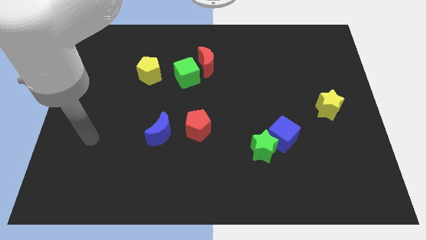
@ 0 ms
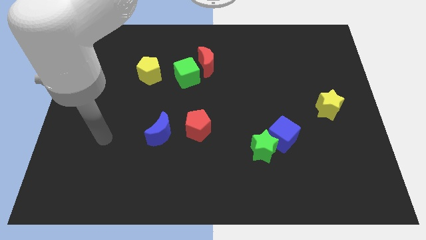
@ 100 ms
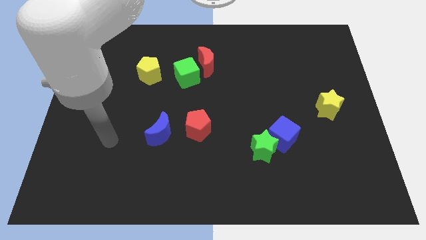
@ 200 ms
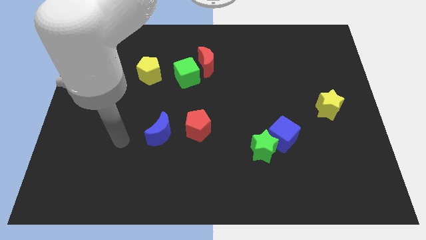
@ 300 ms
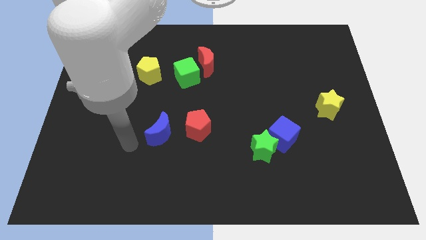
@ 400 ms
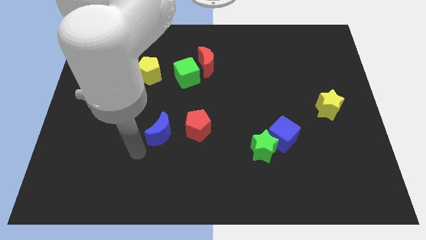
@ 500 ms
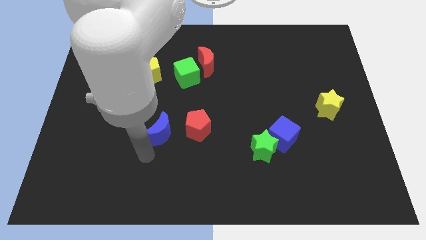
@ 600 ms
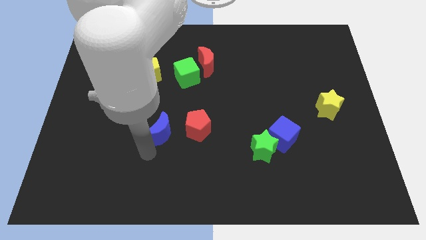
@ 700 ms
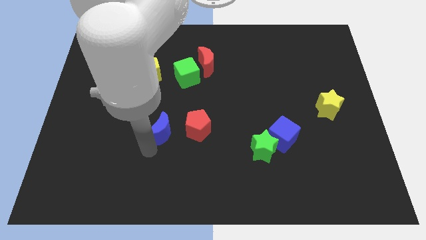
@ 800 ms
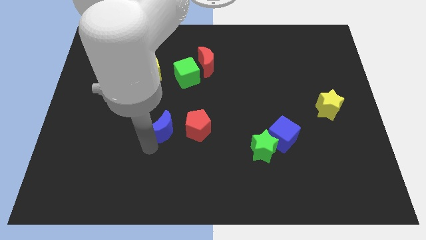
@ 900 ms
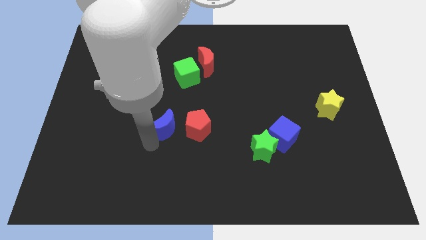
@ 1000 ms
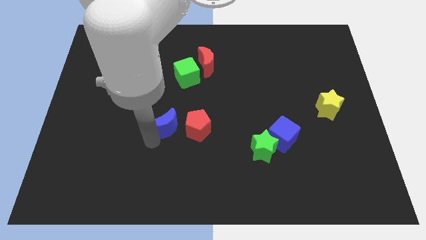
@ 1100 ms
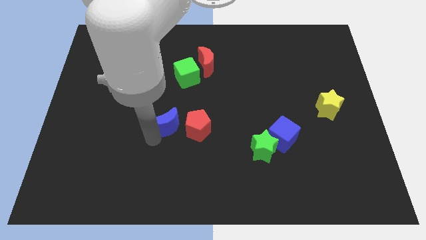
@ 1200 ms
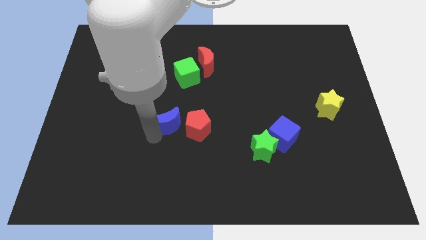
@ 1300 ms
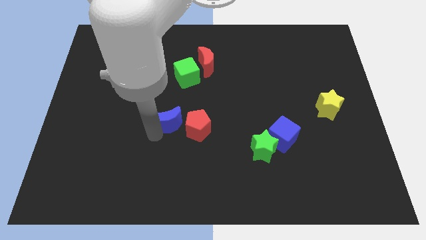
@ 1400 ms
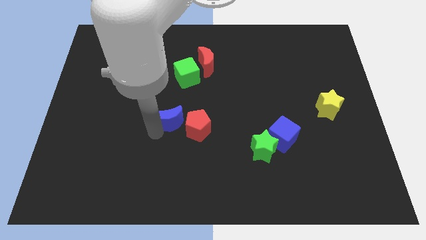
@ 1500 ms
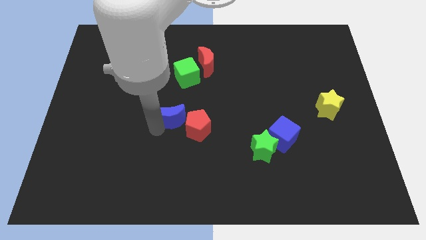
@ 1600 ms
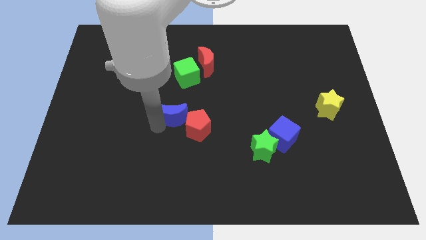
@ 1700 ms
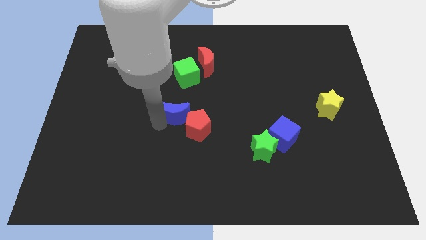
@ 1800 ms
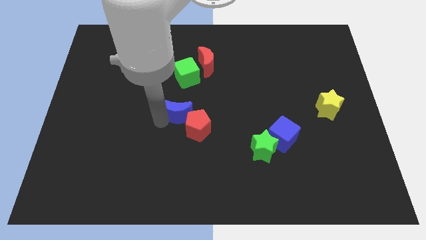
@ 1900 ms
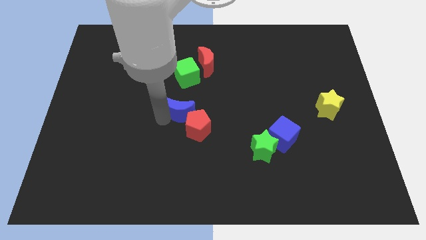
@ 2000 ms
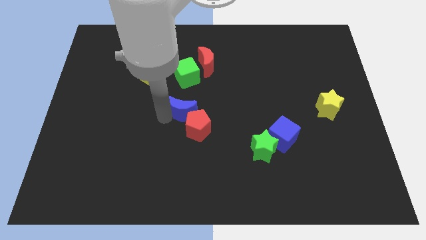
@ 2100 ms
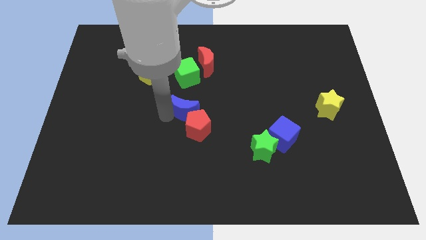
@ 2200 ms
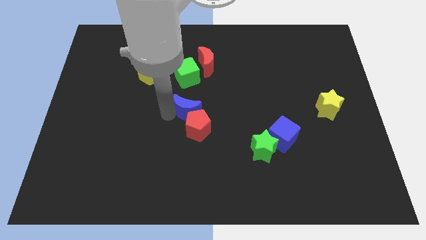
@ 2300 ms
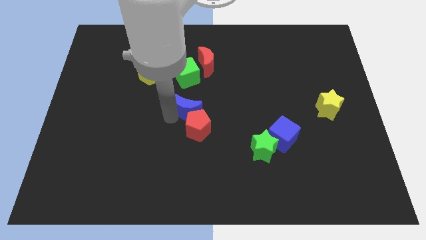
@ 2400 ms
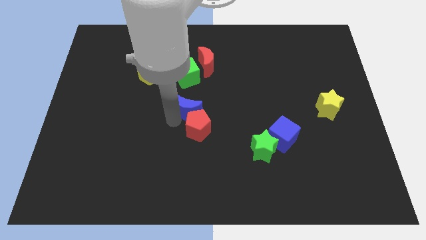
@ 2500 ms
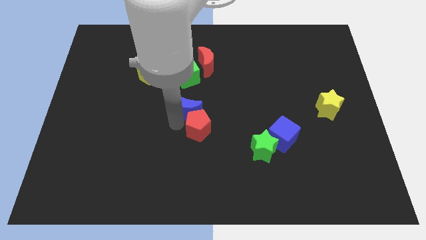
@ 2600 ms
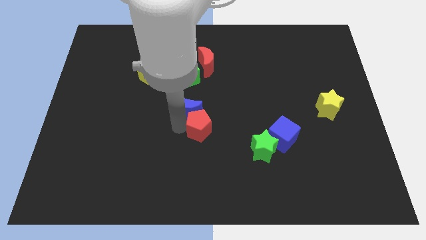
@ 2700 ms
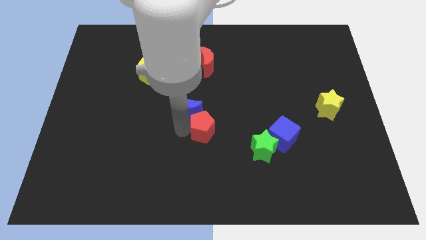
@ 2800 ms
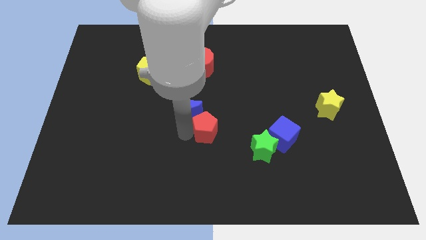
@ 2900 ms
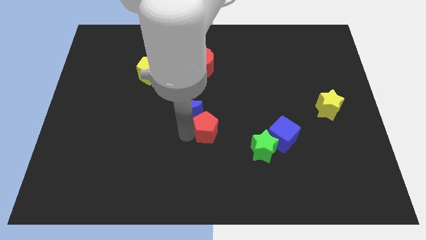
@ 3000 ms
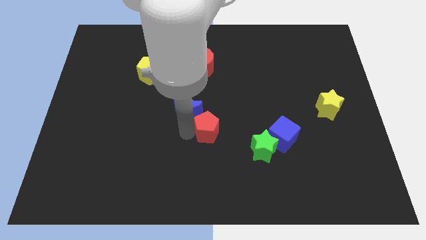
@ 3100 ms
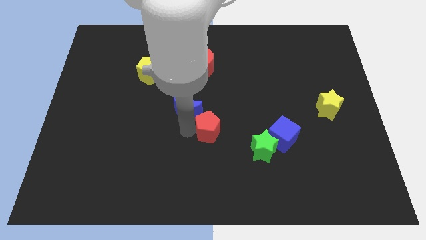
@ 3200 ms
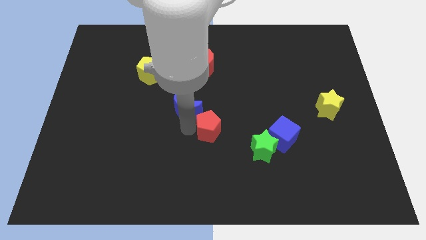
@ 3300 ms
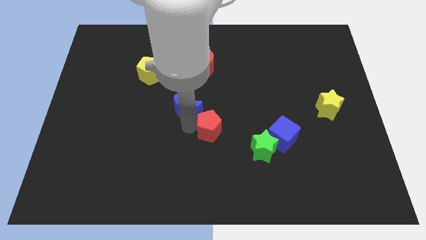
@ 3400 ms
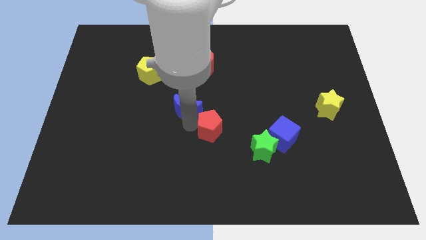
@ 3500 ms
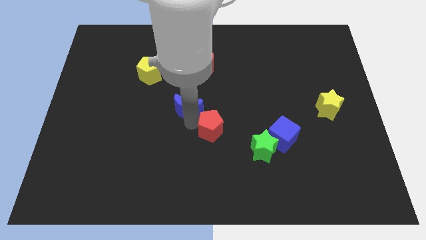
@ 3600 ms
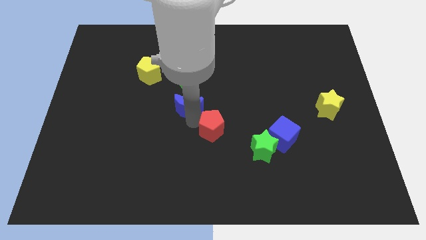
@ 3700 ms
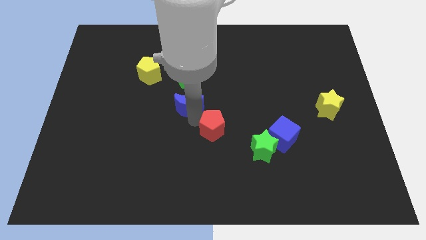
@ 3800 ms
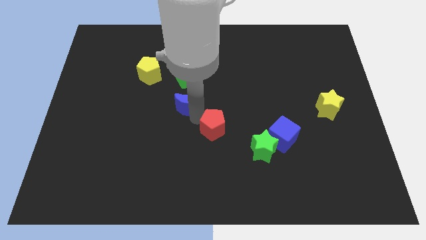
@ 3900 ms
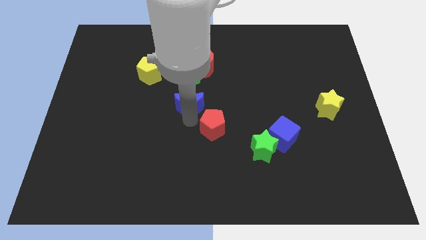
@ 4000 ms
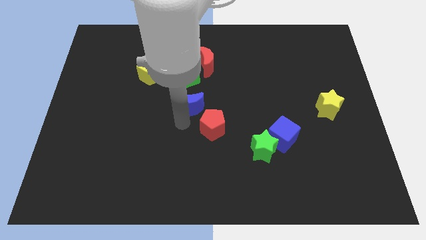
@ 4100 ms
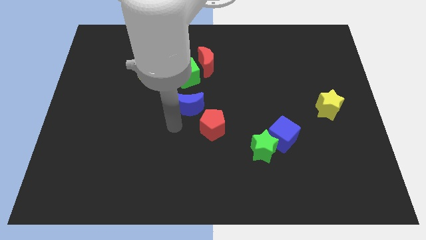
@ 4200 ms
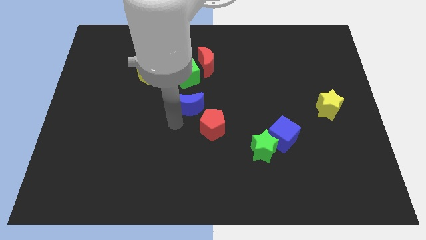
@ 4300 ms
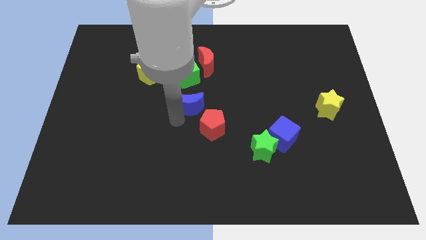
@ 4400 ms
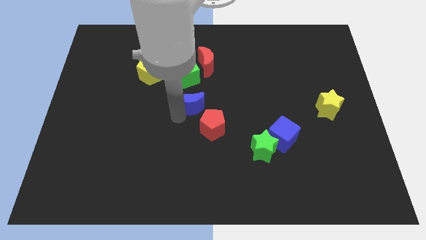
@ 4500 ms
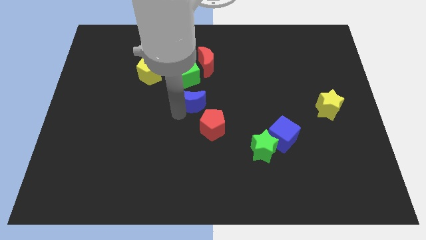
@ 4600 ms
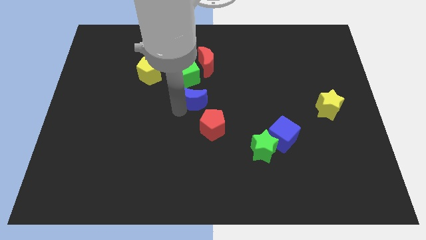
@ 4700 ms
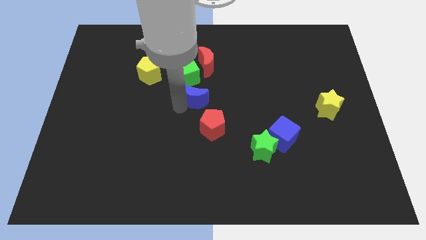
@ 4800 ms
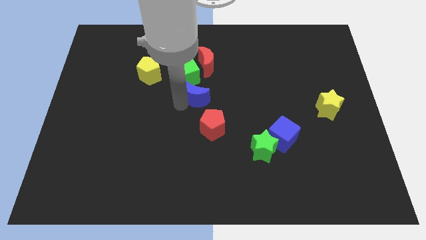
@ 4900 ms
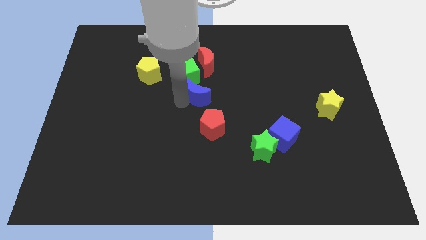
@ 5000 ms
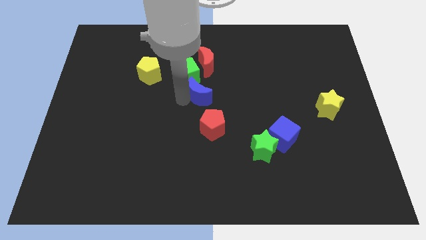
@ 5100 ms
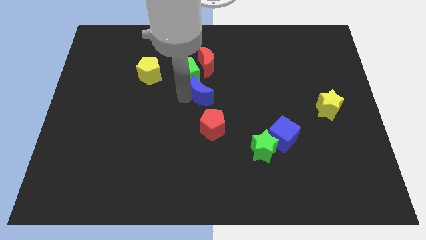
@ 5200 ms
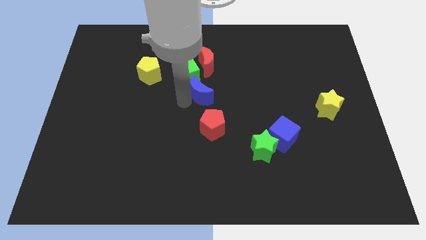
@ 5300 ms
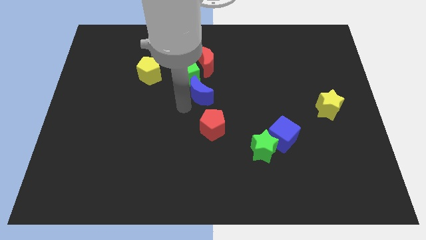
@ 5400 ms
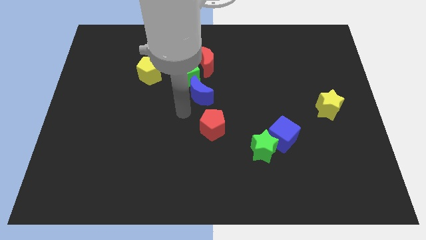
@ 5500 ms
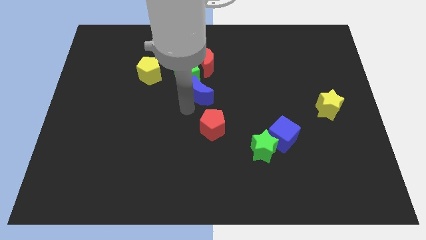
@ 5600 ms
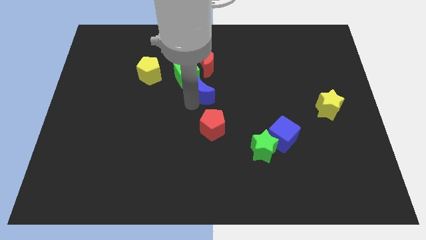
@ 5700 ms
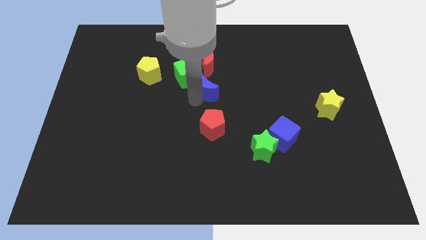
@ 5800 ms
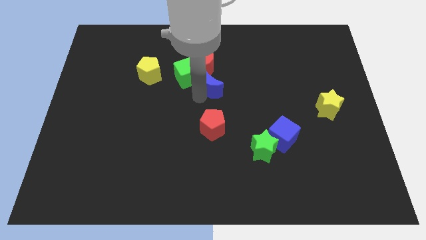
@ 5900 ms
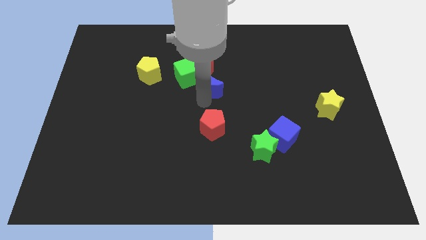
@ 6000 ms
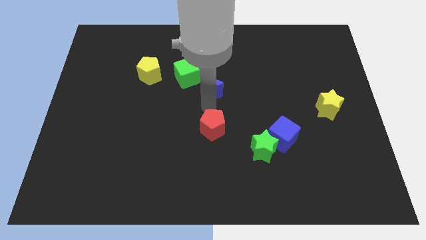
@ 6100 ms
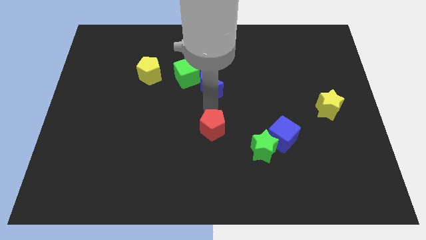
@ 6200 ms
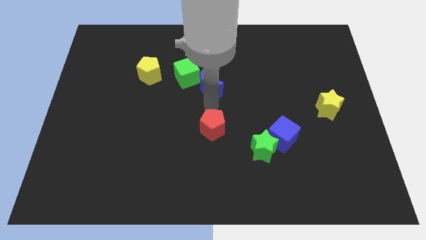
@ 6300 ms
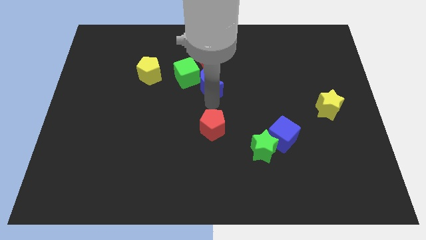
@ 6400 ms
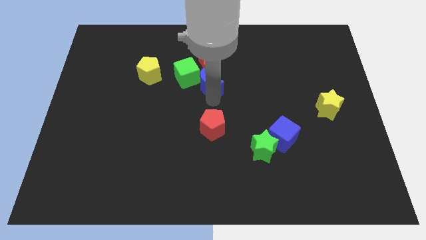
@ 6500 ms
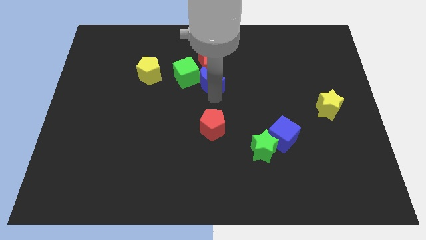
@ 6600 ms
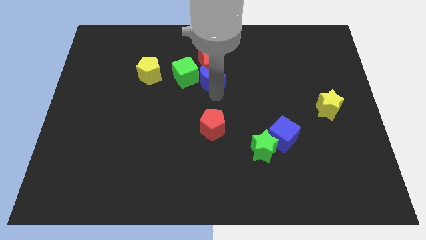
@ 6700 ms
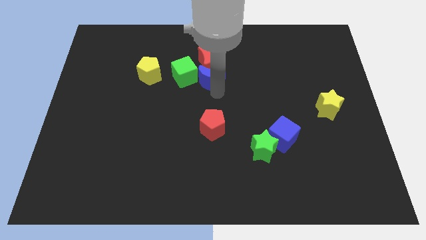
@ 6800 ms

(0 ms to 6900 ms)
put the blue moon towards the red moon

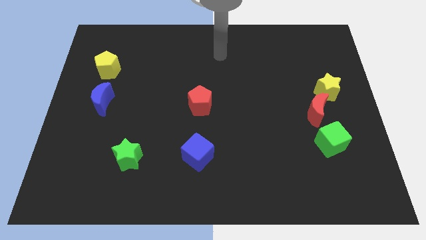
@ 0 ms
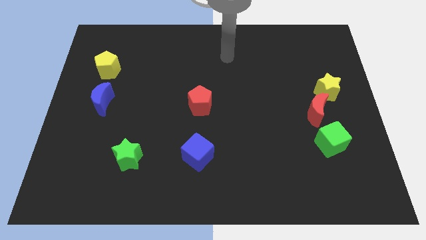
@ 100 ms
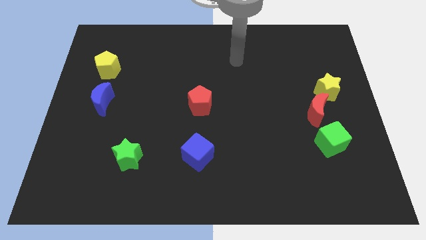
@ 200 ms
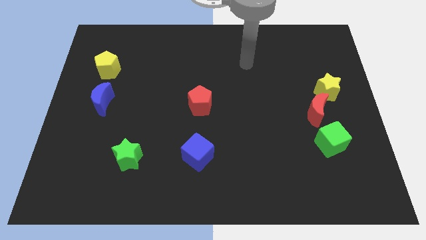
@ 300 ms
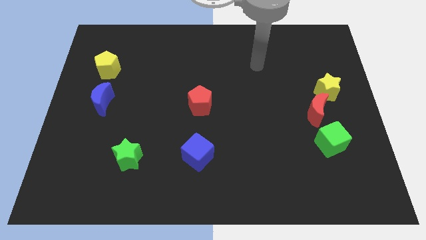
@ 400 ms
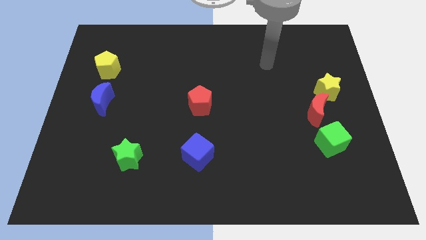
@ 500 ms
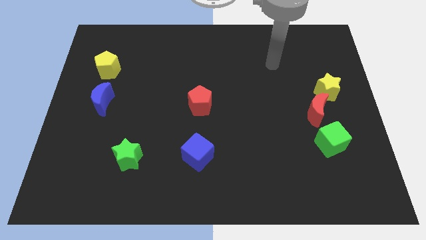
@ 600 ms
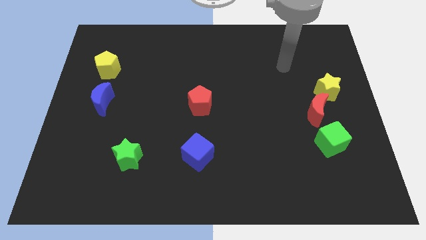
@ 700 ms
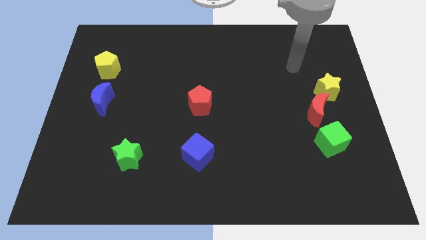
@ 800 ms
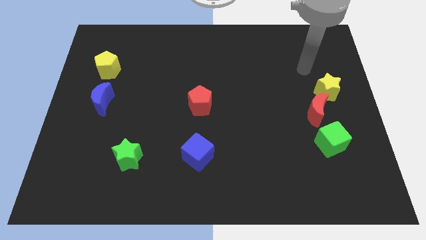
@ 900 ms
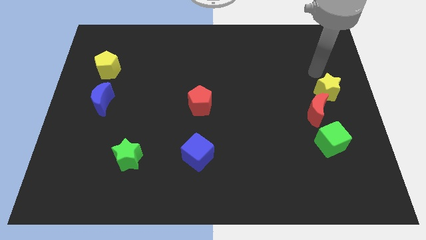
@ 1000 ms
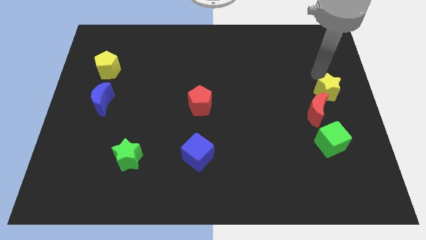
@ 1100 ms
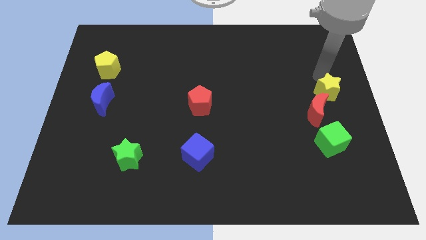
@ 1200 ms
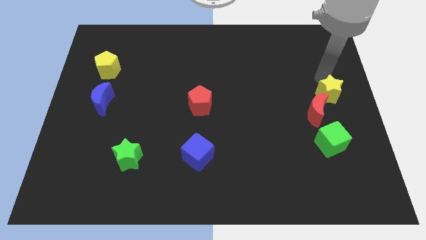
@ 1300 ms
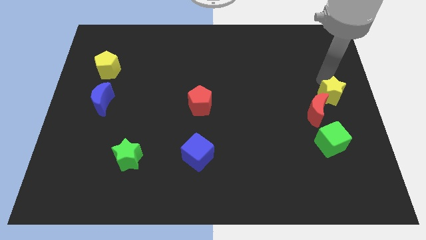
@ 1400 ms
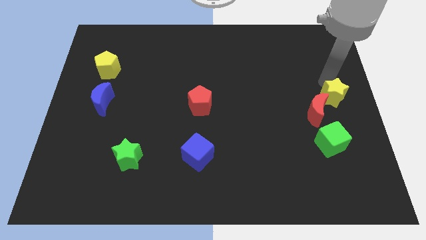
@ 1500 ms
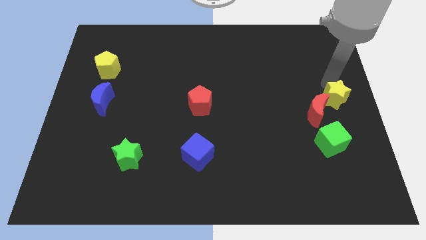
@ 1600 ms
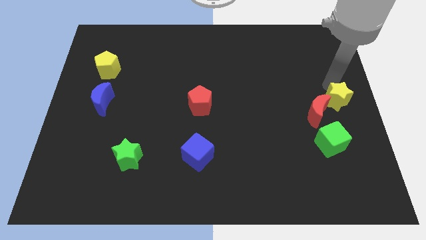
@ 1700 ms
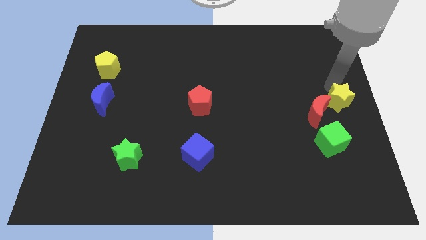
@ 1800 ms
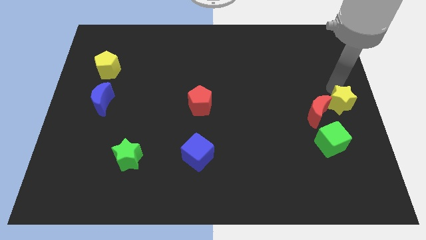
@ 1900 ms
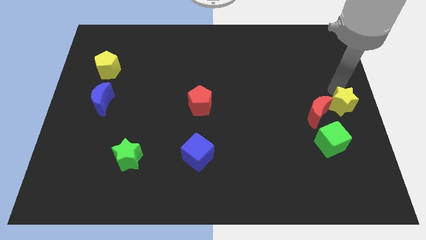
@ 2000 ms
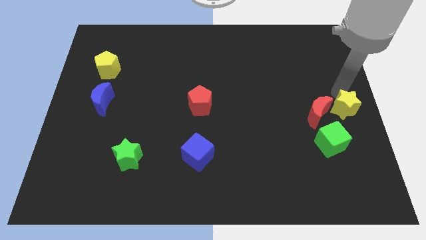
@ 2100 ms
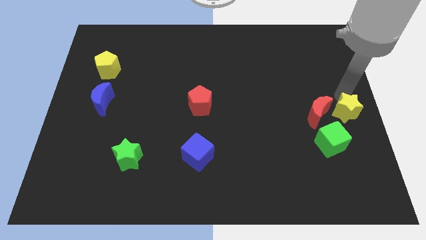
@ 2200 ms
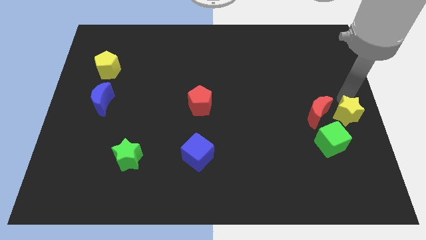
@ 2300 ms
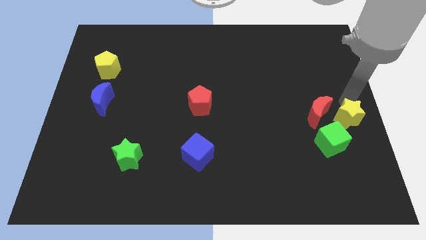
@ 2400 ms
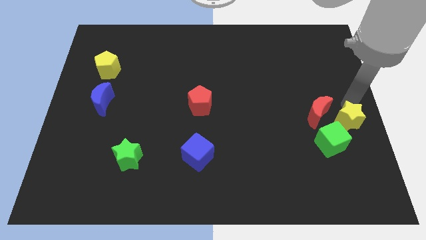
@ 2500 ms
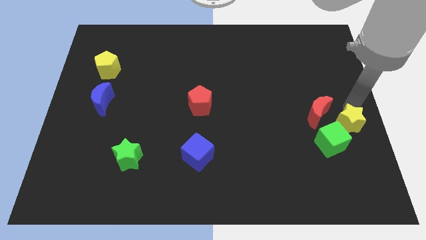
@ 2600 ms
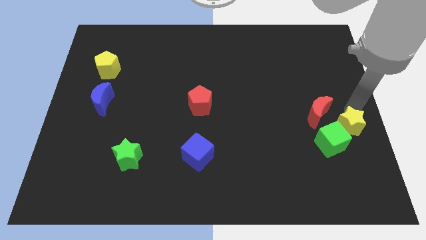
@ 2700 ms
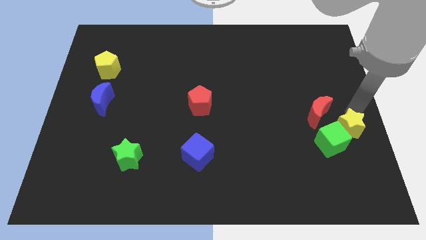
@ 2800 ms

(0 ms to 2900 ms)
slide the yellow star to the green cube
